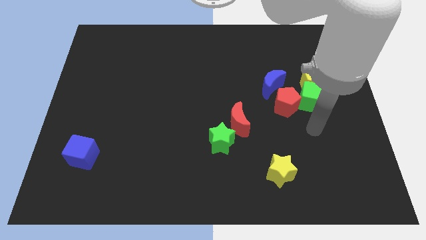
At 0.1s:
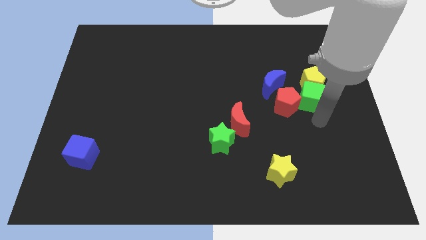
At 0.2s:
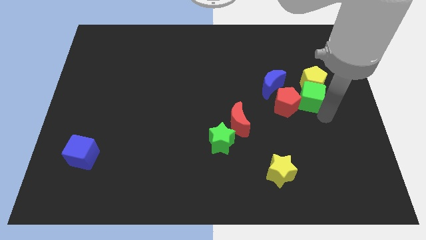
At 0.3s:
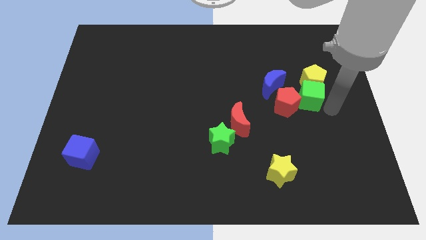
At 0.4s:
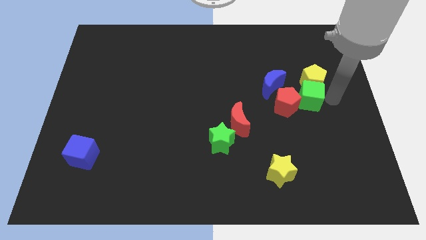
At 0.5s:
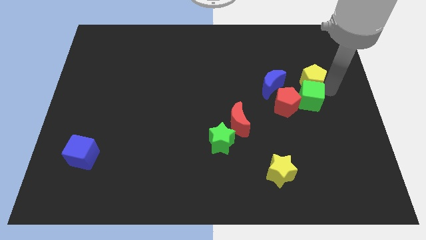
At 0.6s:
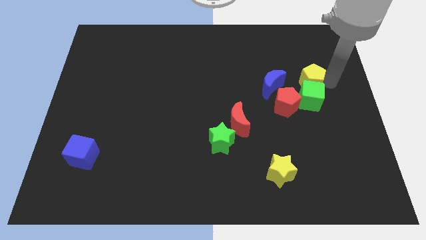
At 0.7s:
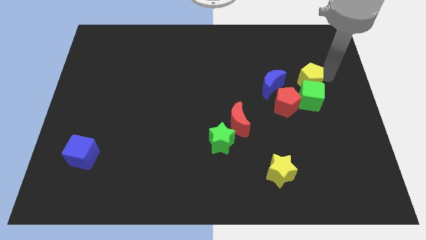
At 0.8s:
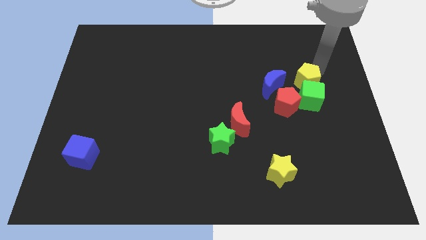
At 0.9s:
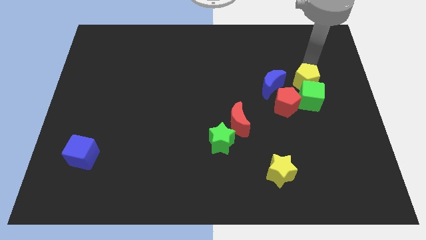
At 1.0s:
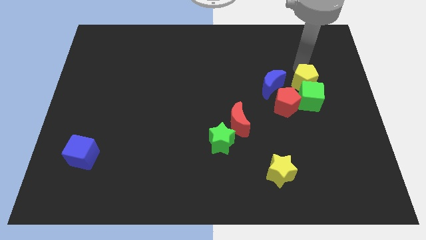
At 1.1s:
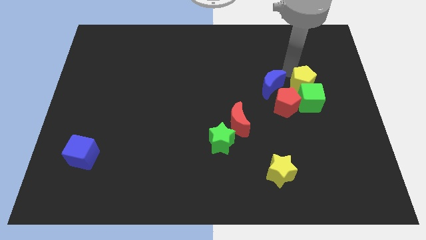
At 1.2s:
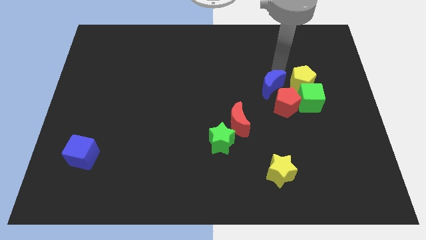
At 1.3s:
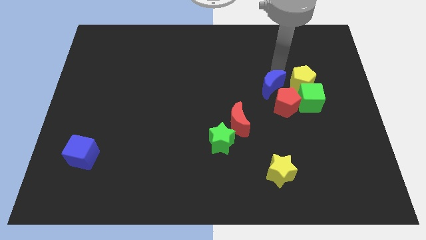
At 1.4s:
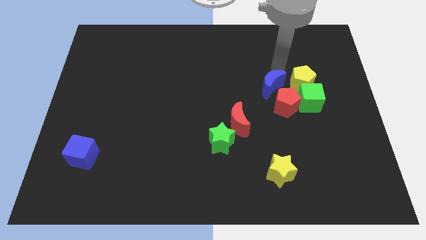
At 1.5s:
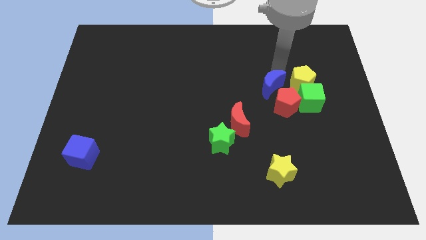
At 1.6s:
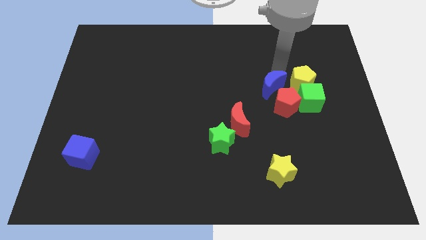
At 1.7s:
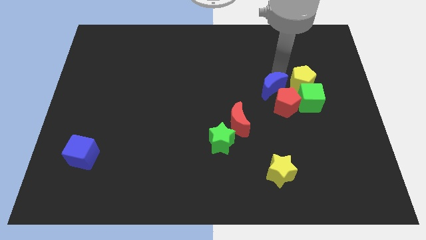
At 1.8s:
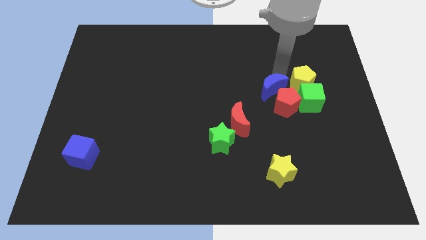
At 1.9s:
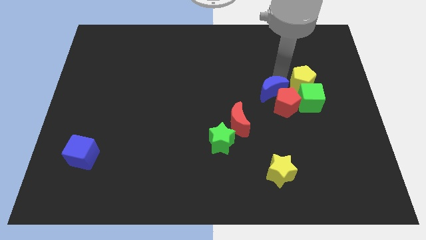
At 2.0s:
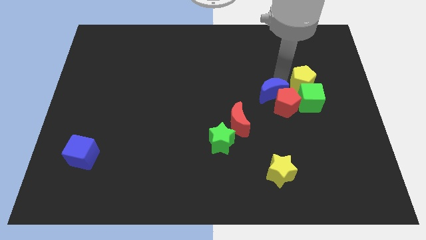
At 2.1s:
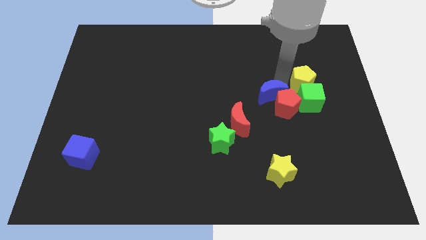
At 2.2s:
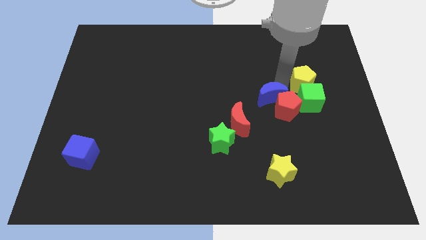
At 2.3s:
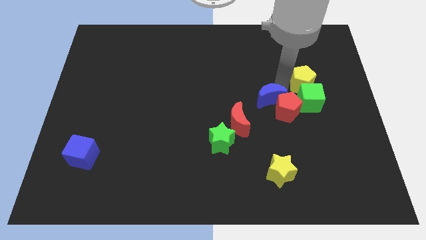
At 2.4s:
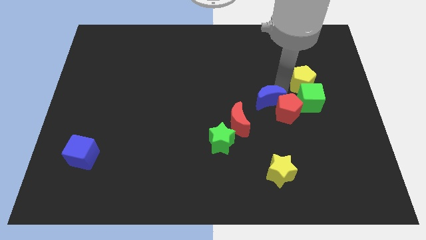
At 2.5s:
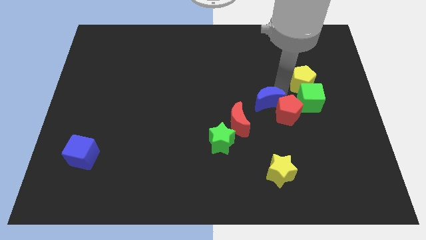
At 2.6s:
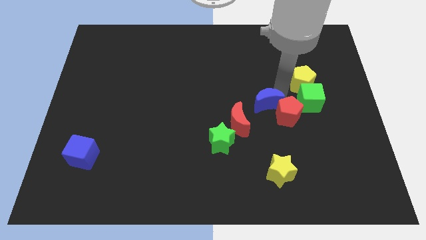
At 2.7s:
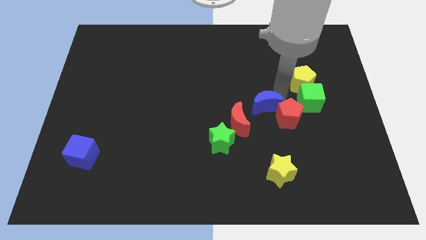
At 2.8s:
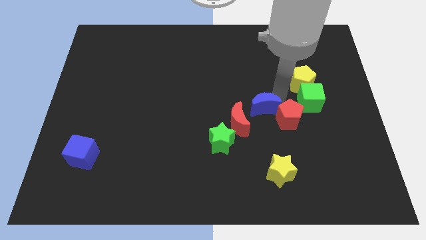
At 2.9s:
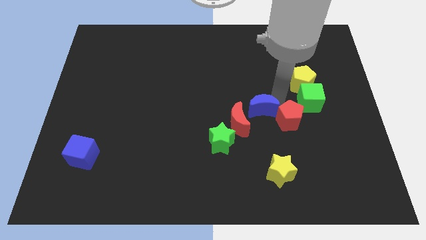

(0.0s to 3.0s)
slide the blue moon slightly downwards

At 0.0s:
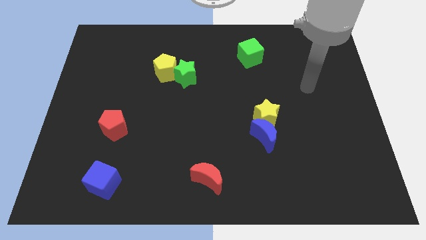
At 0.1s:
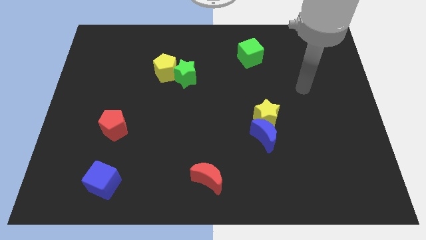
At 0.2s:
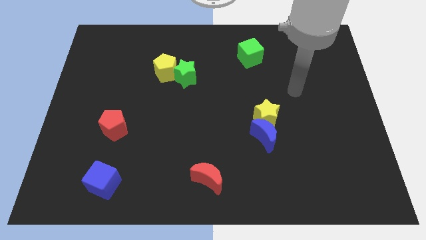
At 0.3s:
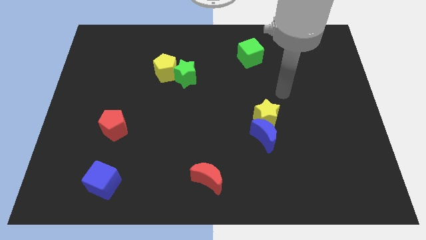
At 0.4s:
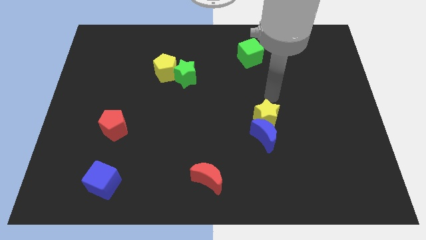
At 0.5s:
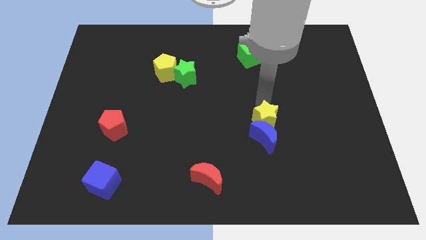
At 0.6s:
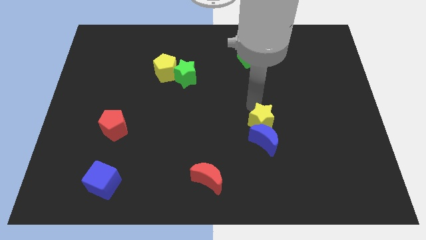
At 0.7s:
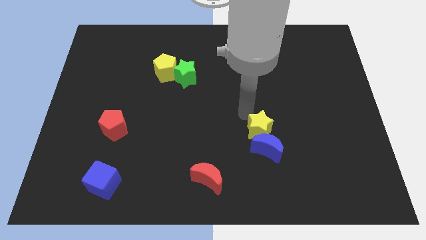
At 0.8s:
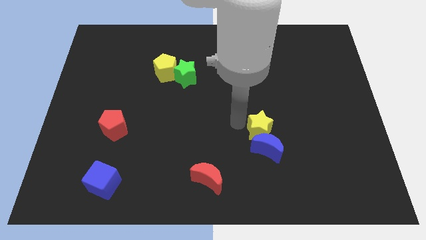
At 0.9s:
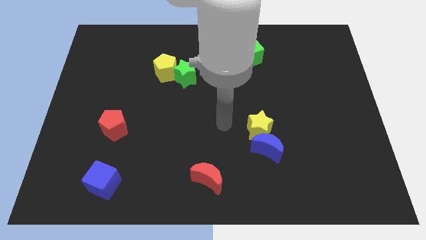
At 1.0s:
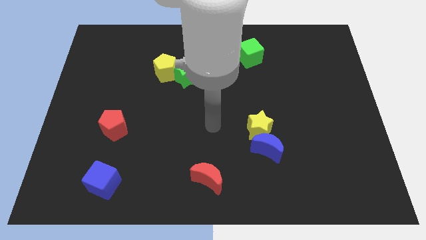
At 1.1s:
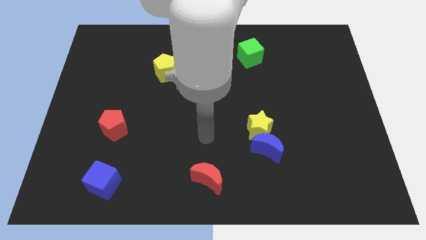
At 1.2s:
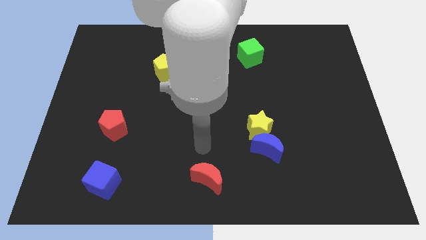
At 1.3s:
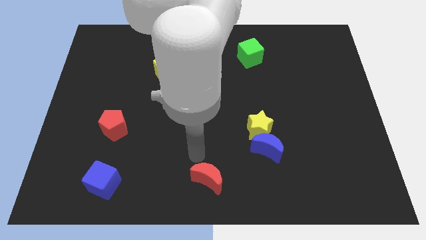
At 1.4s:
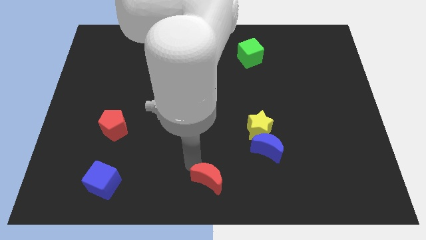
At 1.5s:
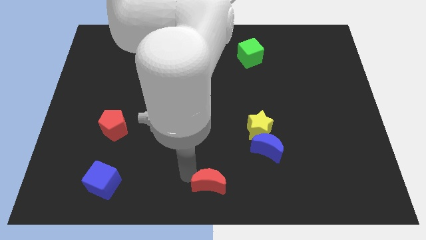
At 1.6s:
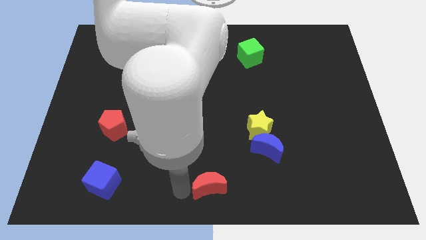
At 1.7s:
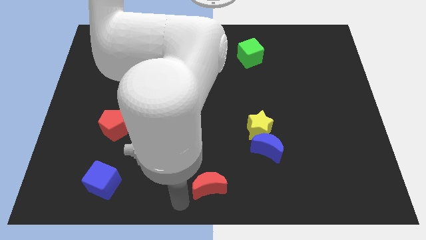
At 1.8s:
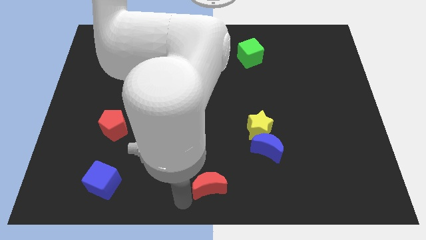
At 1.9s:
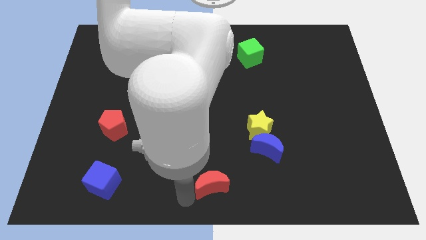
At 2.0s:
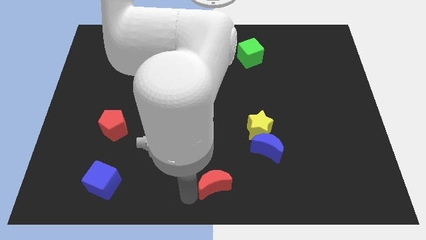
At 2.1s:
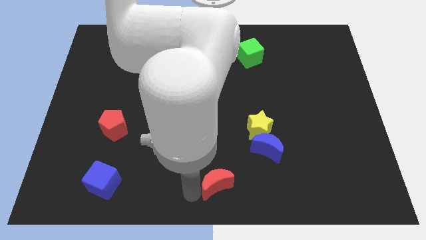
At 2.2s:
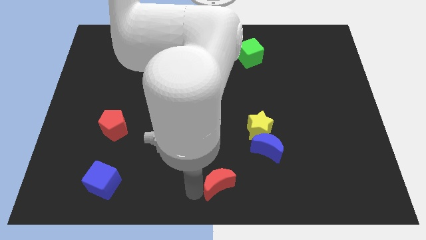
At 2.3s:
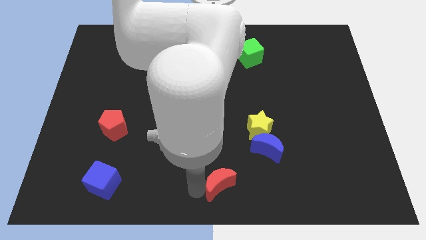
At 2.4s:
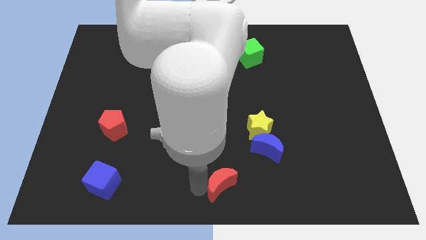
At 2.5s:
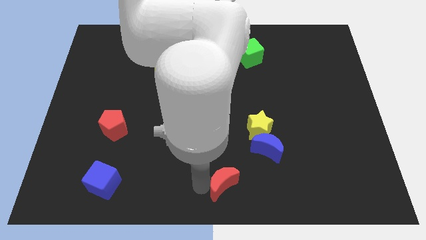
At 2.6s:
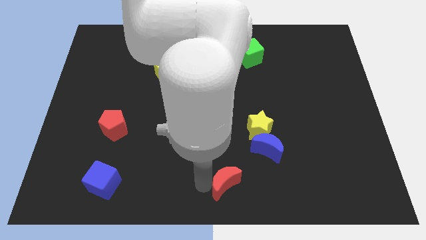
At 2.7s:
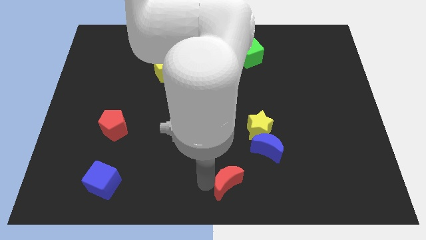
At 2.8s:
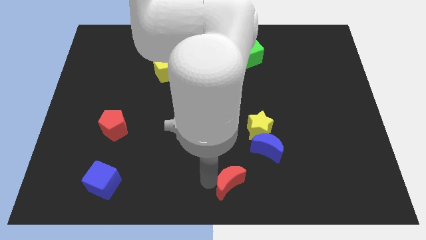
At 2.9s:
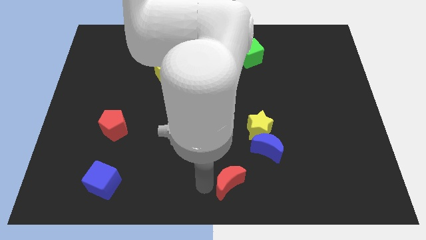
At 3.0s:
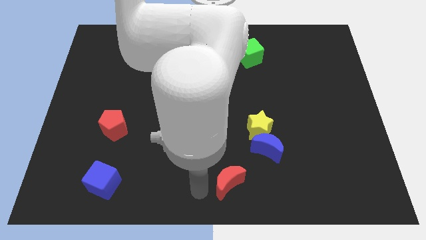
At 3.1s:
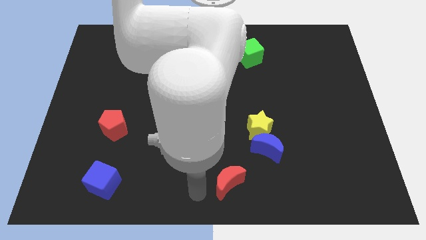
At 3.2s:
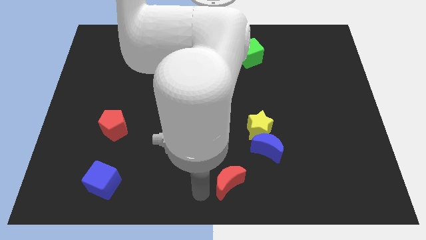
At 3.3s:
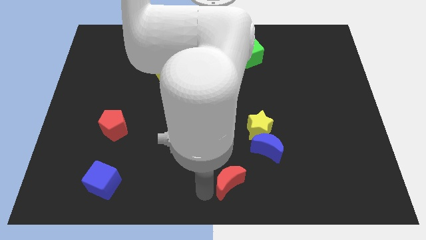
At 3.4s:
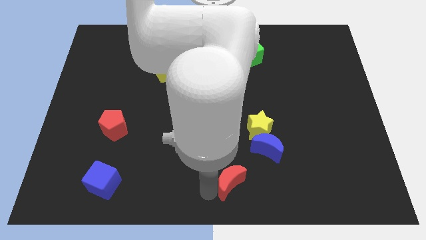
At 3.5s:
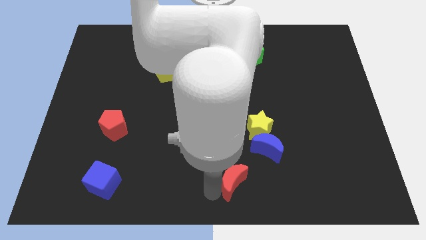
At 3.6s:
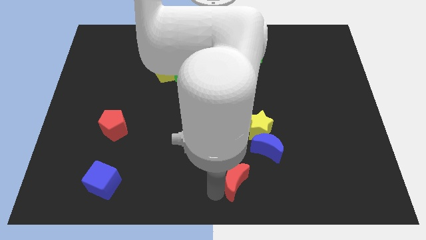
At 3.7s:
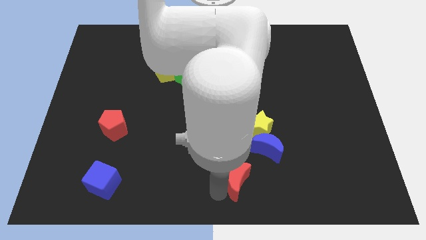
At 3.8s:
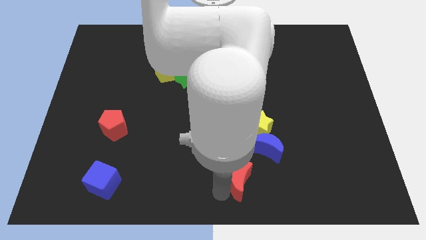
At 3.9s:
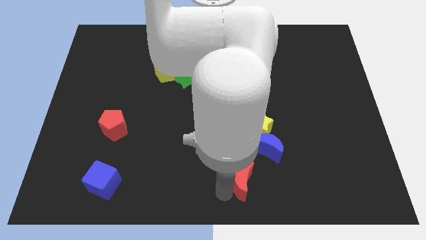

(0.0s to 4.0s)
slightly slide the red moon to the right

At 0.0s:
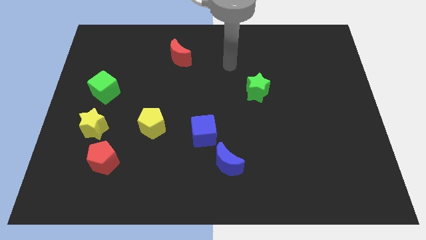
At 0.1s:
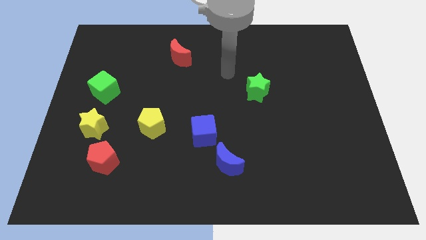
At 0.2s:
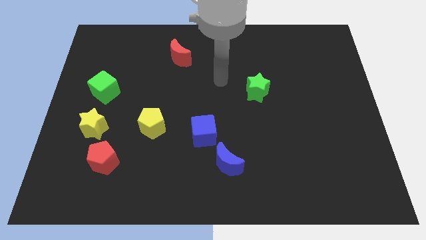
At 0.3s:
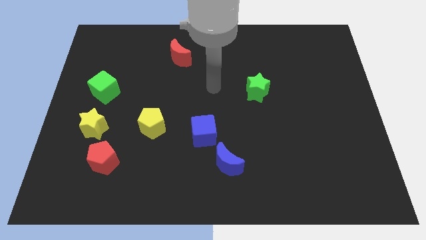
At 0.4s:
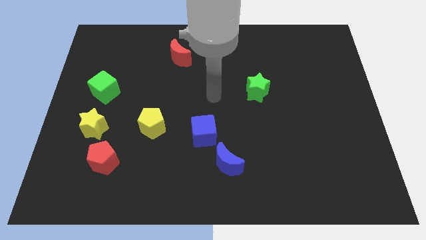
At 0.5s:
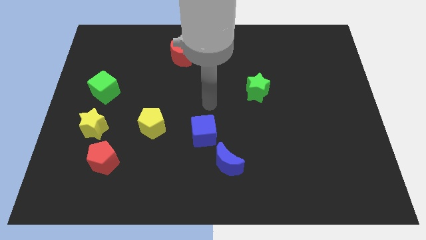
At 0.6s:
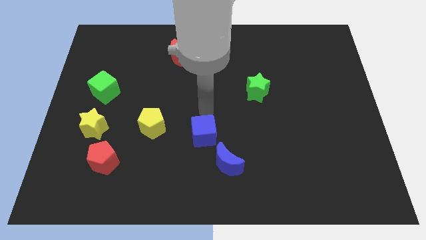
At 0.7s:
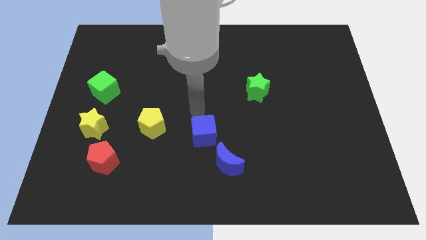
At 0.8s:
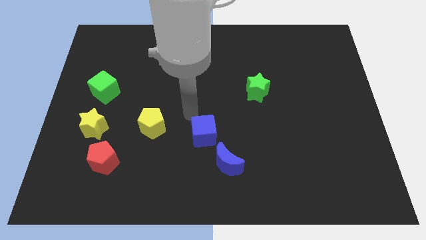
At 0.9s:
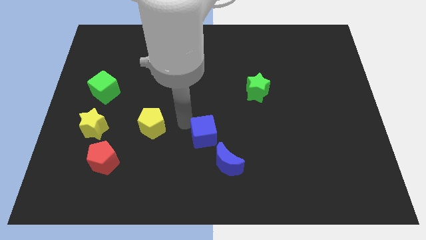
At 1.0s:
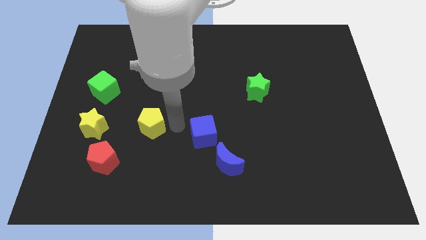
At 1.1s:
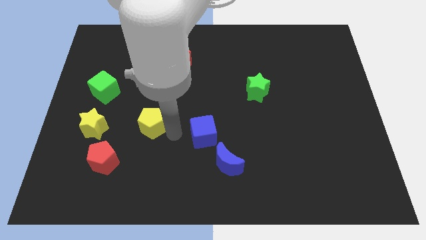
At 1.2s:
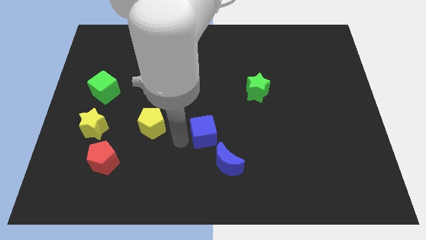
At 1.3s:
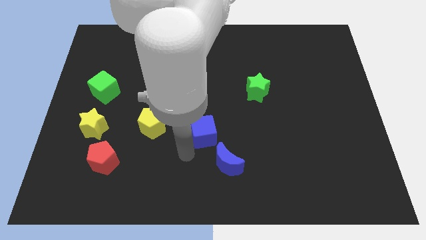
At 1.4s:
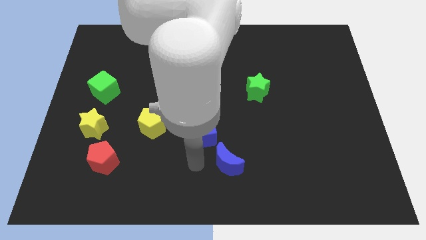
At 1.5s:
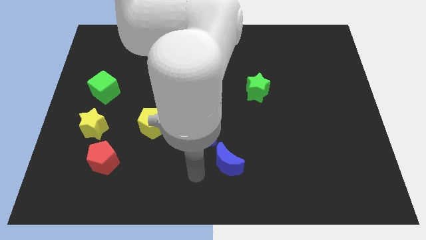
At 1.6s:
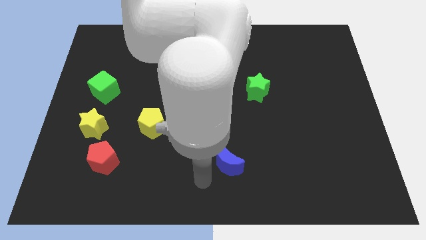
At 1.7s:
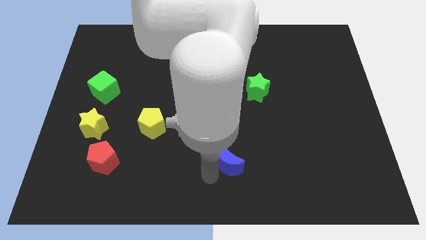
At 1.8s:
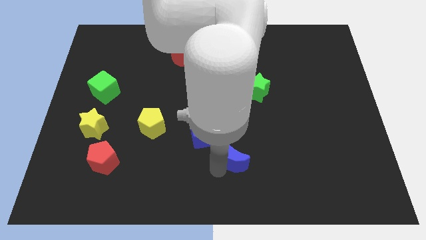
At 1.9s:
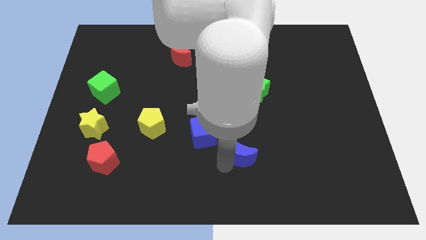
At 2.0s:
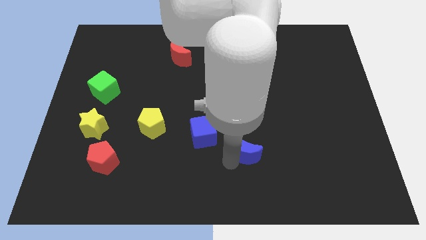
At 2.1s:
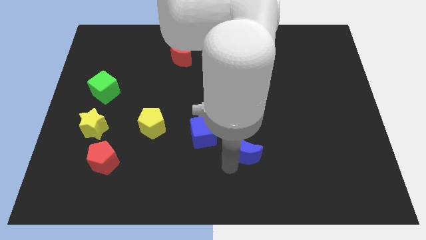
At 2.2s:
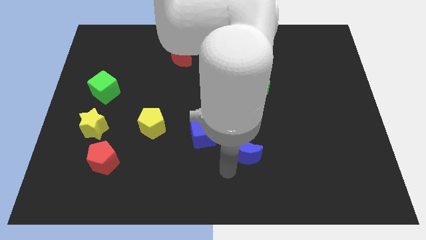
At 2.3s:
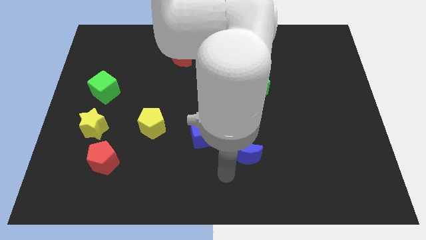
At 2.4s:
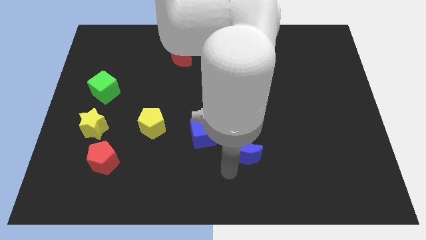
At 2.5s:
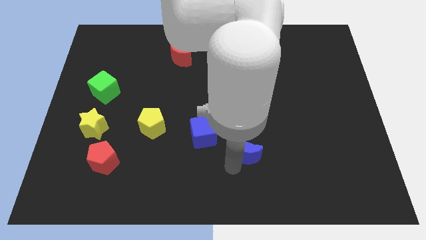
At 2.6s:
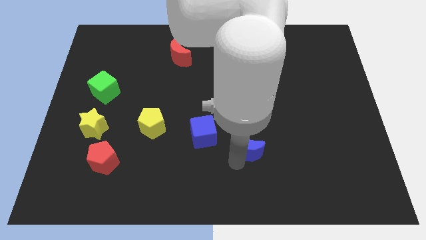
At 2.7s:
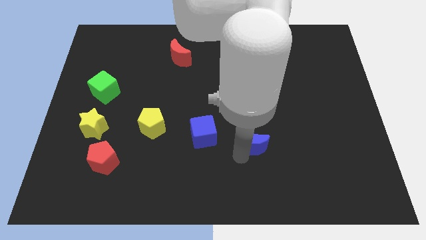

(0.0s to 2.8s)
push the blue moon a little upwards and to the right diagonally
